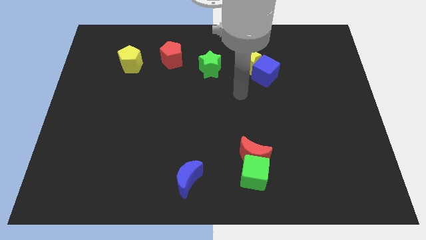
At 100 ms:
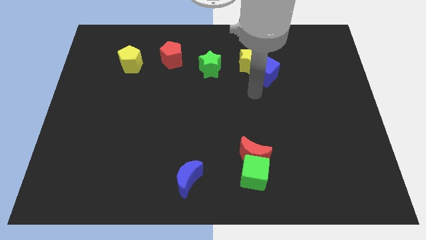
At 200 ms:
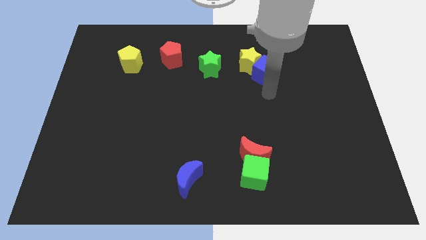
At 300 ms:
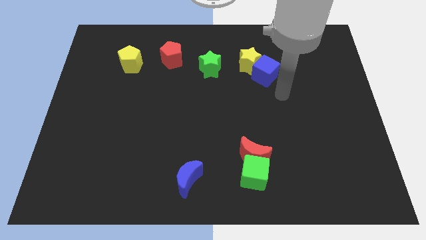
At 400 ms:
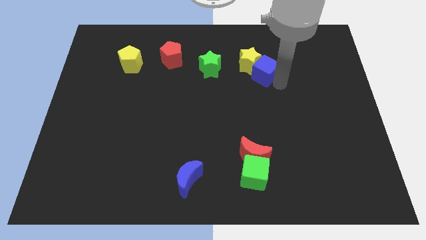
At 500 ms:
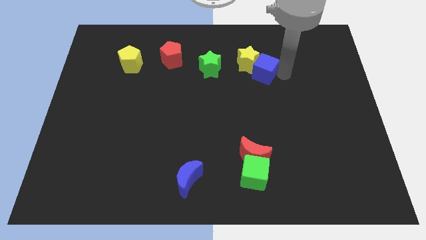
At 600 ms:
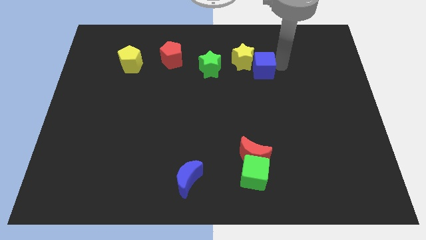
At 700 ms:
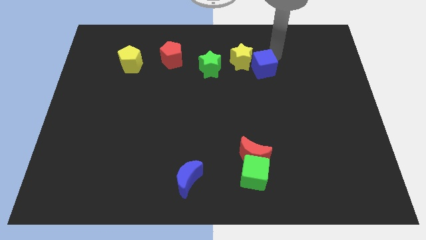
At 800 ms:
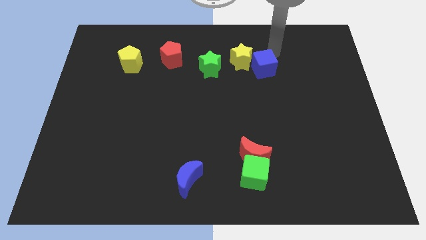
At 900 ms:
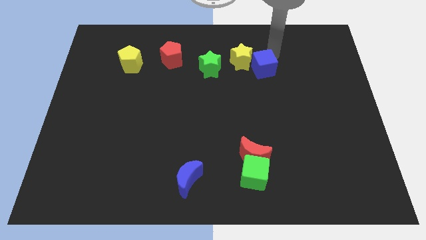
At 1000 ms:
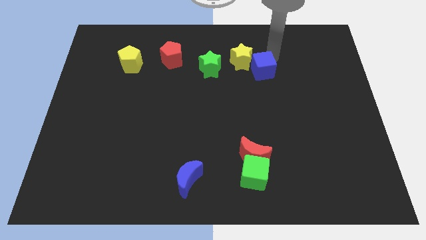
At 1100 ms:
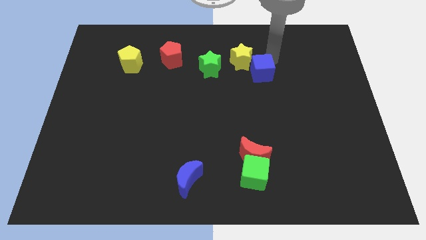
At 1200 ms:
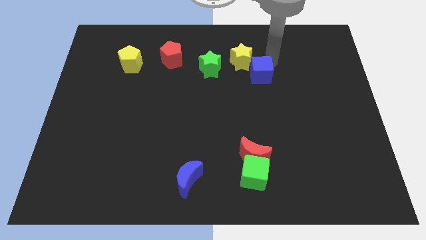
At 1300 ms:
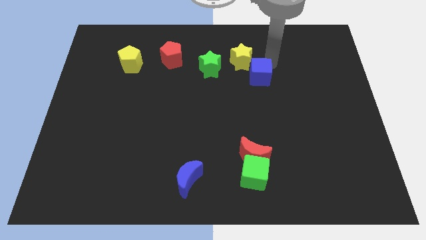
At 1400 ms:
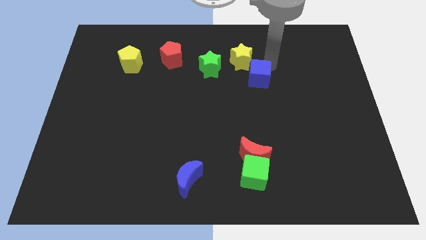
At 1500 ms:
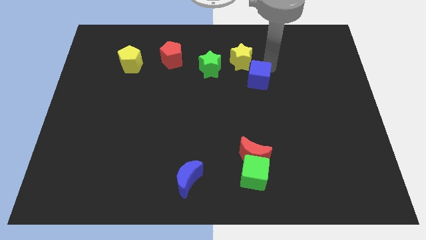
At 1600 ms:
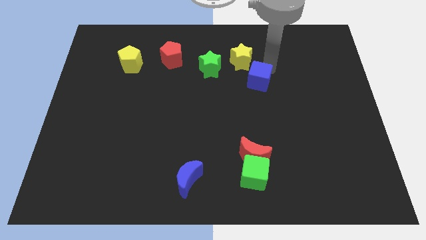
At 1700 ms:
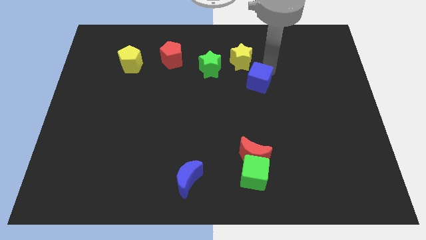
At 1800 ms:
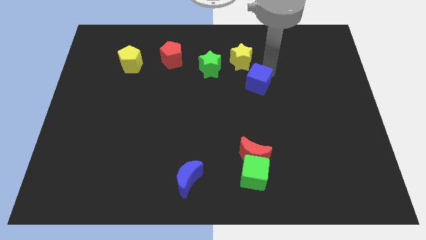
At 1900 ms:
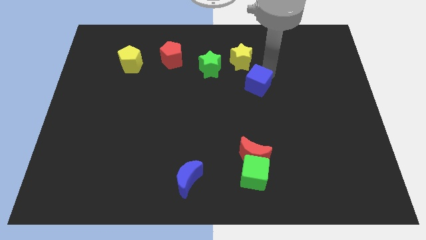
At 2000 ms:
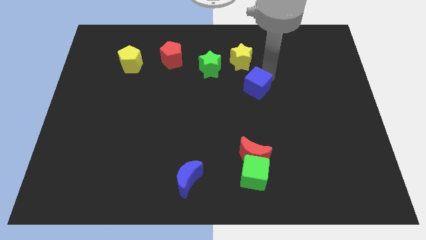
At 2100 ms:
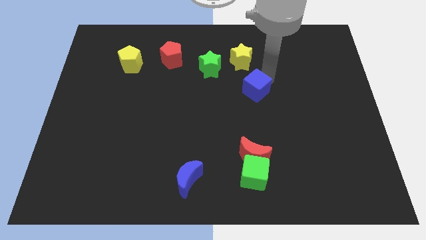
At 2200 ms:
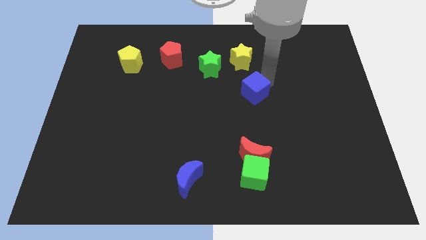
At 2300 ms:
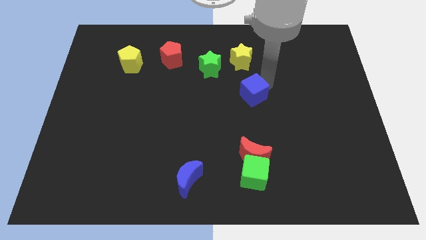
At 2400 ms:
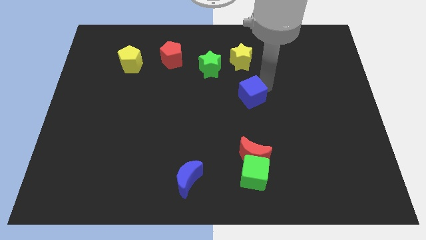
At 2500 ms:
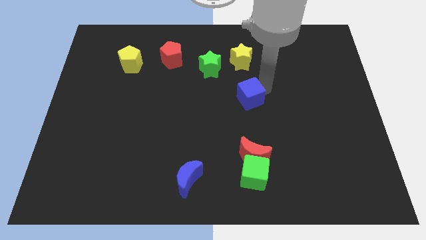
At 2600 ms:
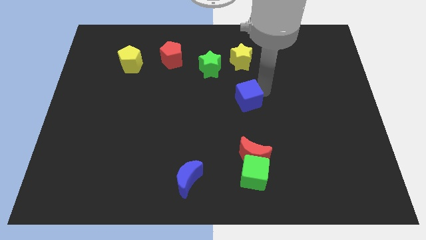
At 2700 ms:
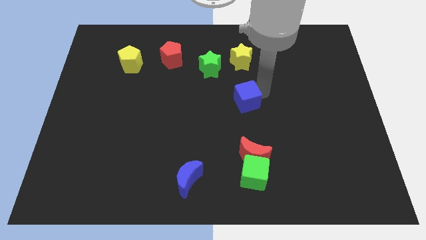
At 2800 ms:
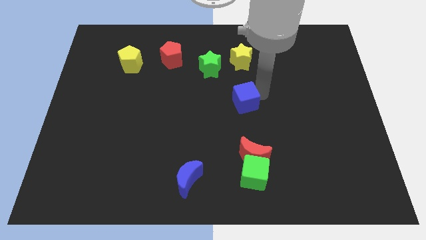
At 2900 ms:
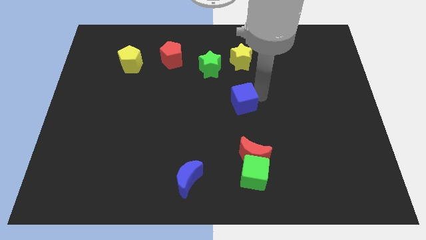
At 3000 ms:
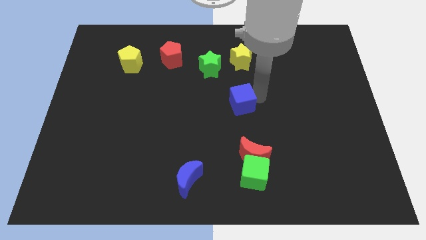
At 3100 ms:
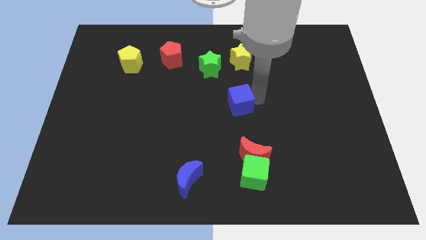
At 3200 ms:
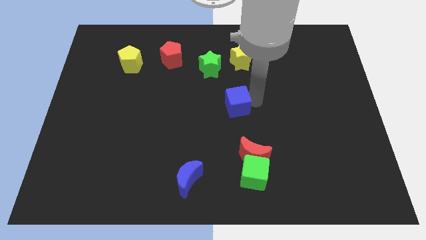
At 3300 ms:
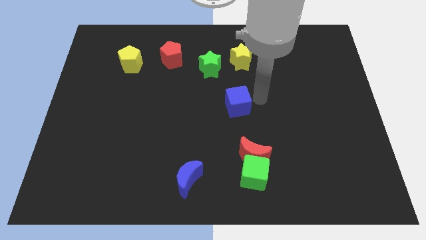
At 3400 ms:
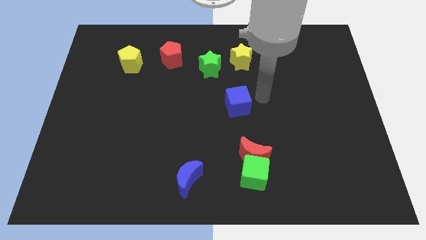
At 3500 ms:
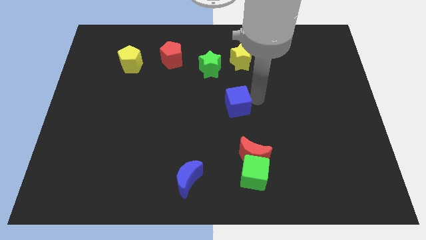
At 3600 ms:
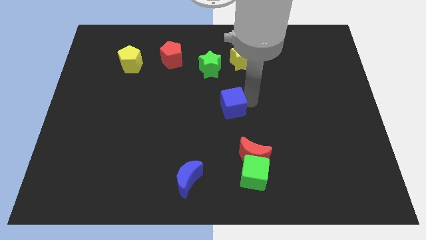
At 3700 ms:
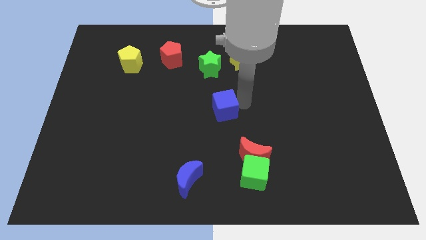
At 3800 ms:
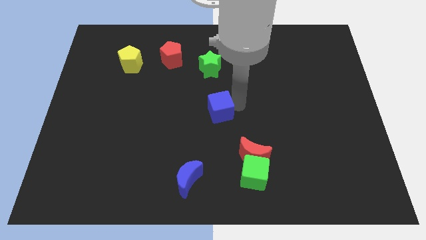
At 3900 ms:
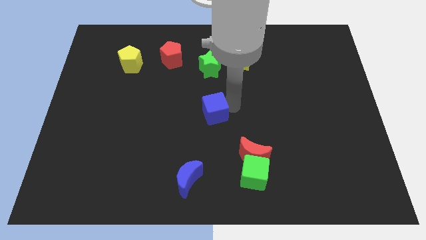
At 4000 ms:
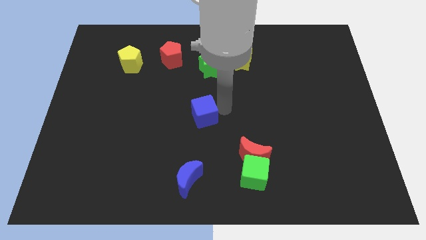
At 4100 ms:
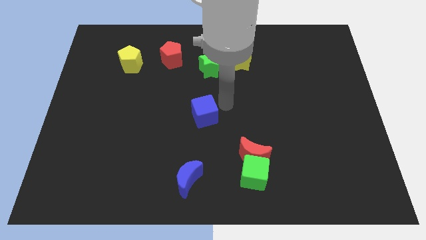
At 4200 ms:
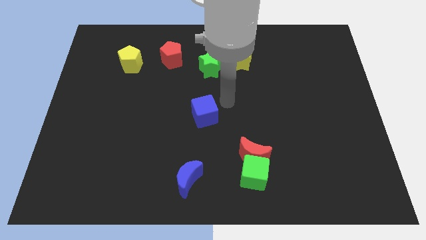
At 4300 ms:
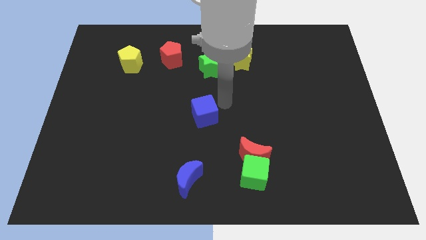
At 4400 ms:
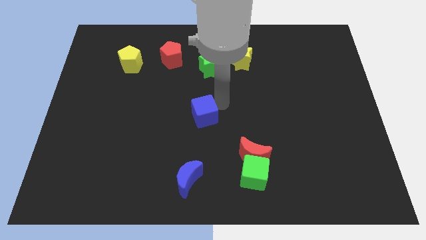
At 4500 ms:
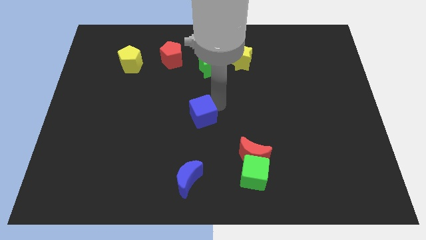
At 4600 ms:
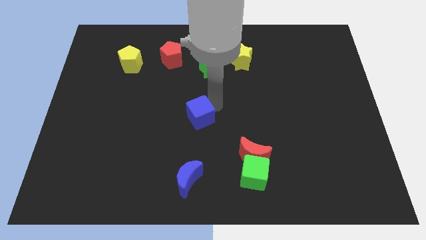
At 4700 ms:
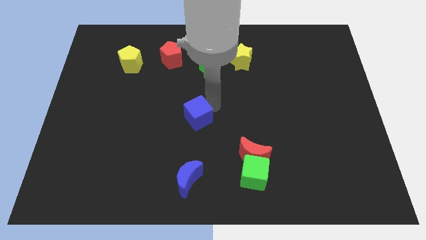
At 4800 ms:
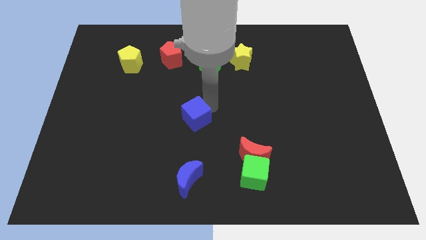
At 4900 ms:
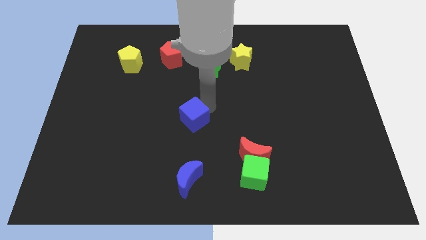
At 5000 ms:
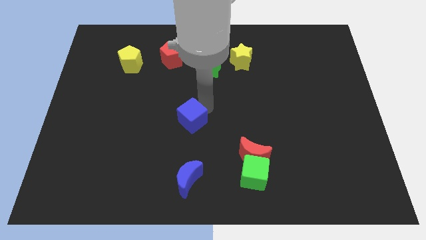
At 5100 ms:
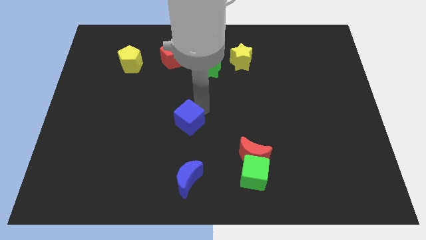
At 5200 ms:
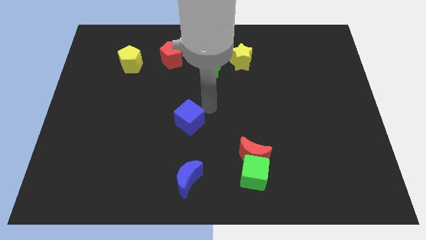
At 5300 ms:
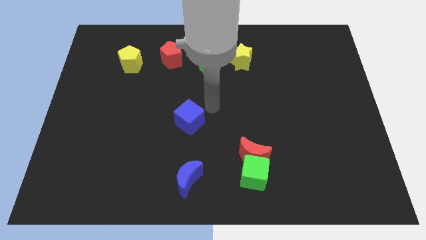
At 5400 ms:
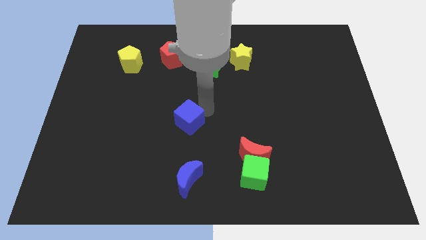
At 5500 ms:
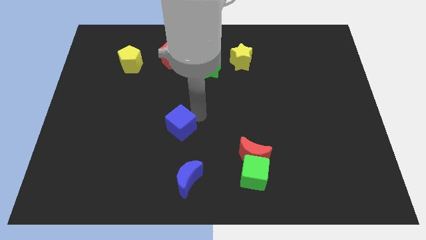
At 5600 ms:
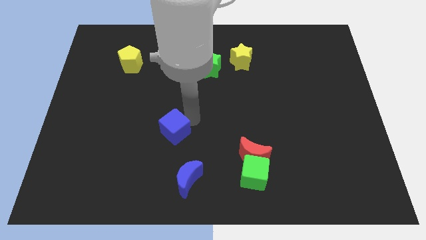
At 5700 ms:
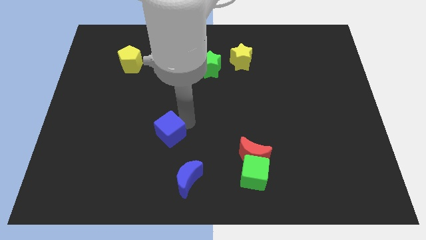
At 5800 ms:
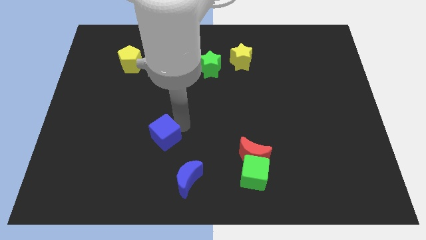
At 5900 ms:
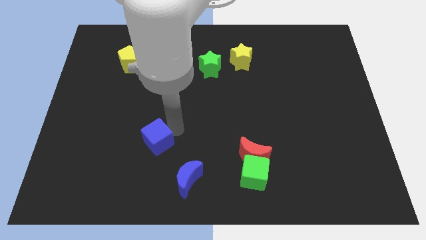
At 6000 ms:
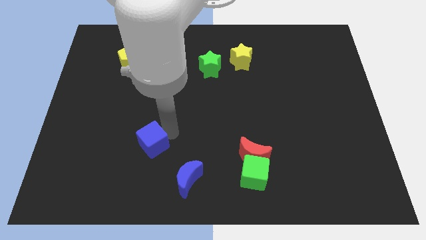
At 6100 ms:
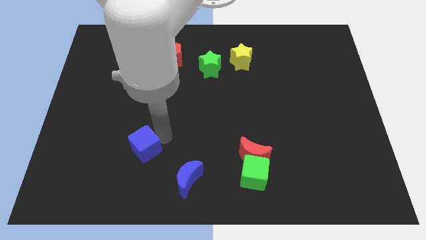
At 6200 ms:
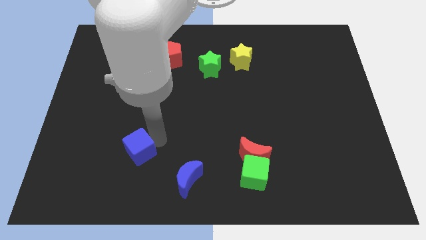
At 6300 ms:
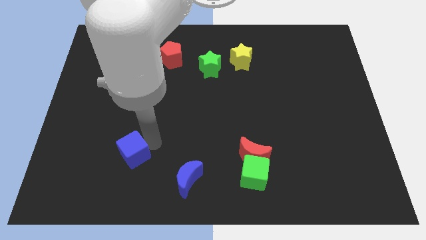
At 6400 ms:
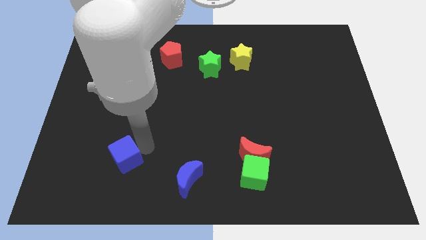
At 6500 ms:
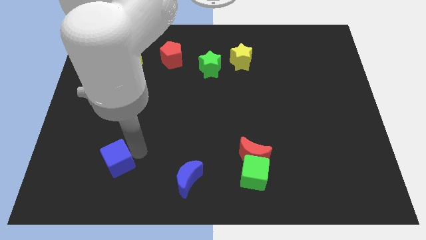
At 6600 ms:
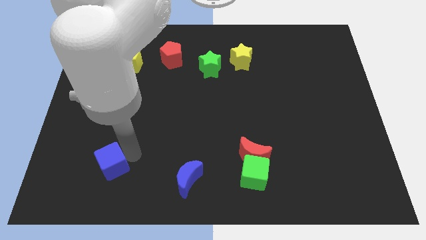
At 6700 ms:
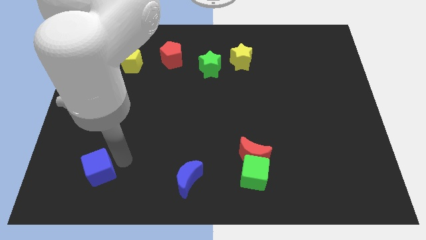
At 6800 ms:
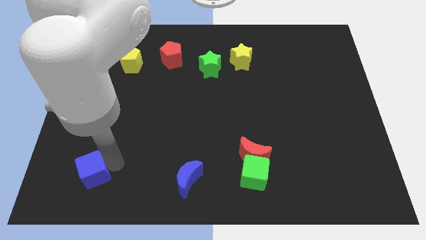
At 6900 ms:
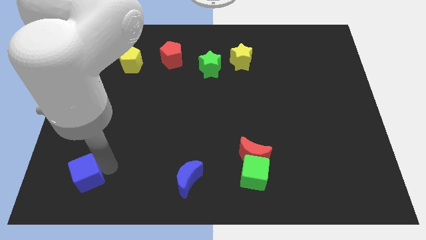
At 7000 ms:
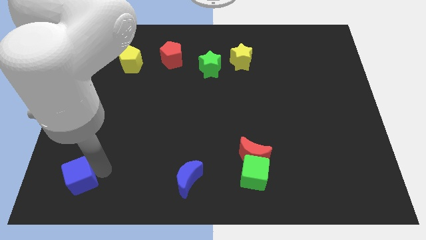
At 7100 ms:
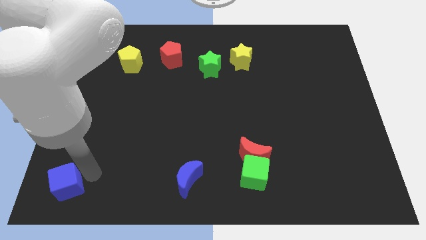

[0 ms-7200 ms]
put the blue cube to the bottom left
